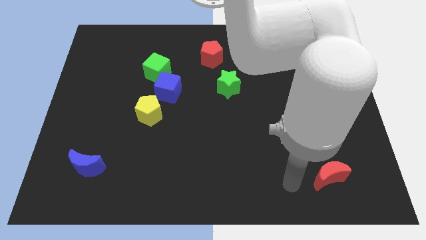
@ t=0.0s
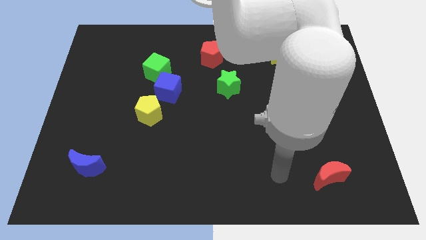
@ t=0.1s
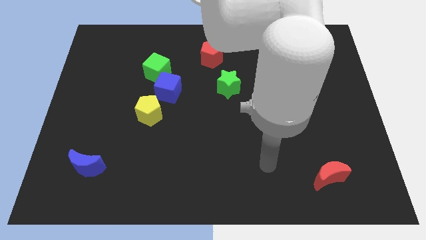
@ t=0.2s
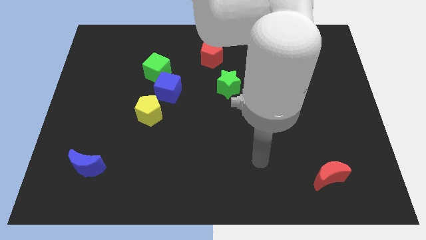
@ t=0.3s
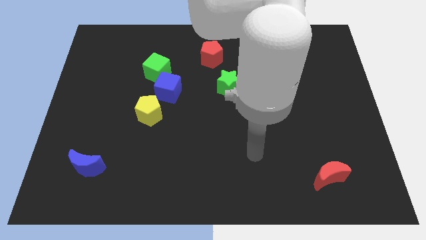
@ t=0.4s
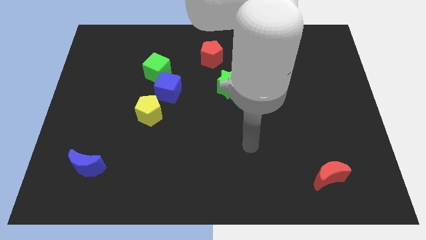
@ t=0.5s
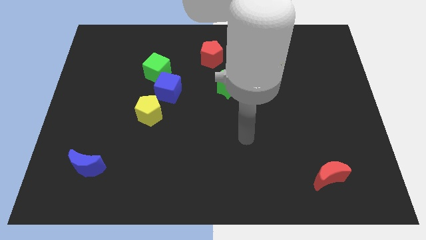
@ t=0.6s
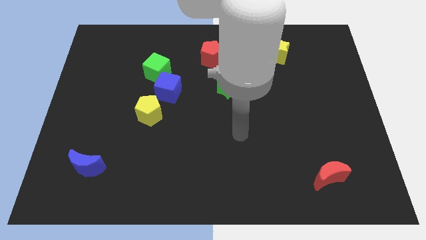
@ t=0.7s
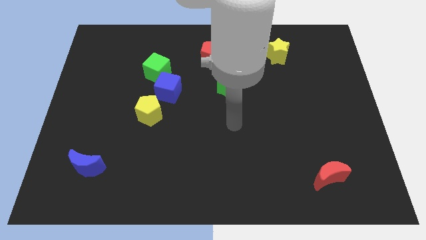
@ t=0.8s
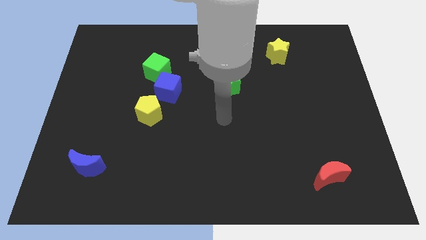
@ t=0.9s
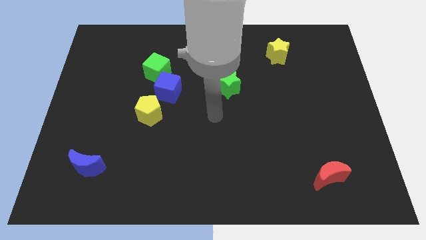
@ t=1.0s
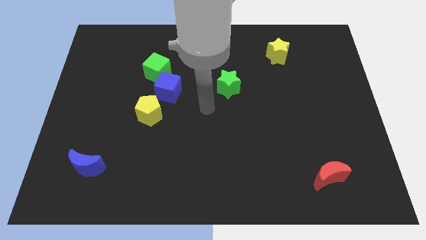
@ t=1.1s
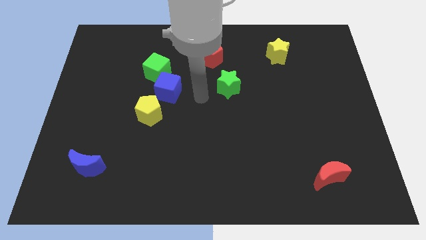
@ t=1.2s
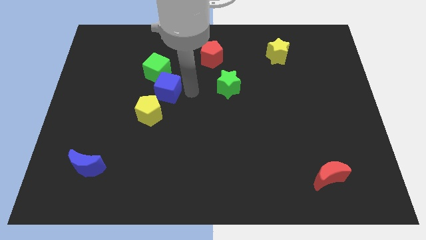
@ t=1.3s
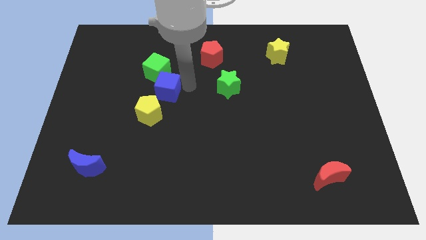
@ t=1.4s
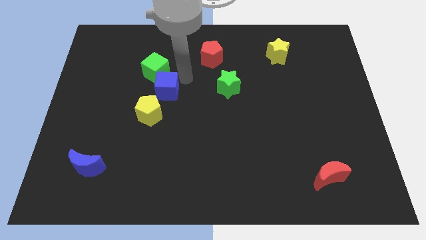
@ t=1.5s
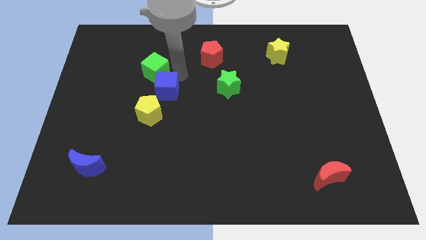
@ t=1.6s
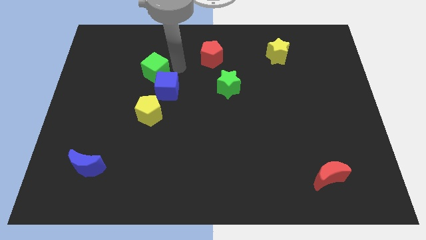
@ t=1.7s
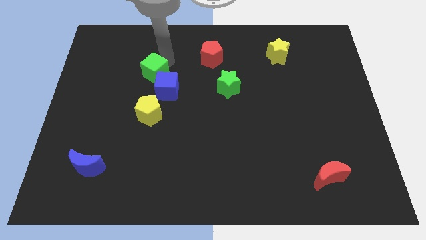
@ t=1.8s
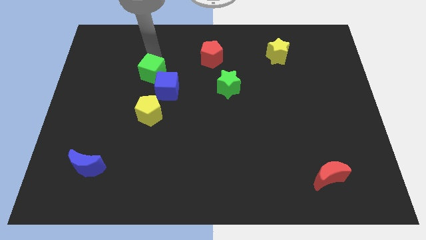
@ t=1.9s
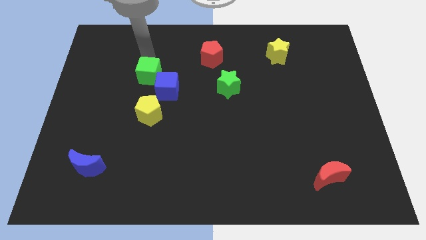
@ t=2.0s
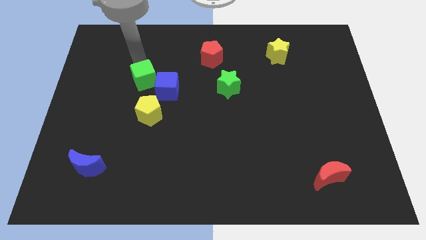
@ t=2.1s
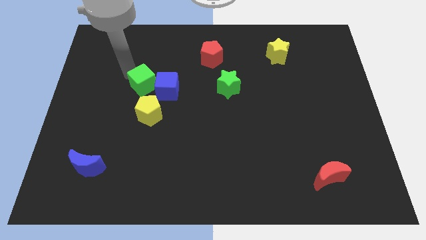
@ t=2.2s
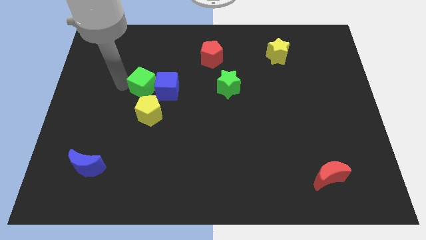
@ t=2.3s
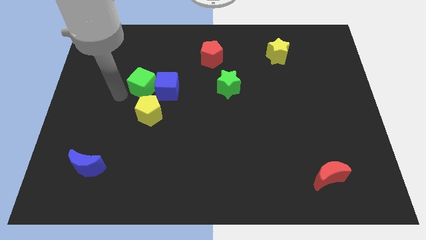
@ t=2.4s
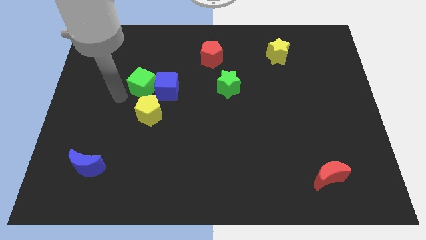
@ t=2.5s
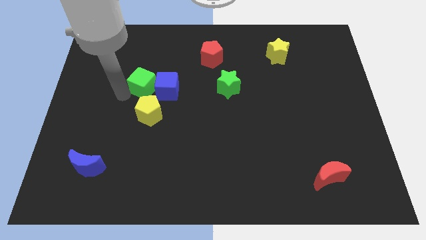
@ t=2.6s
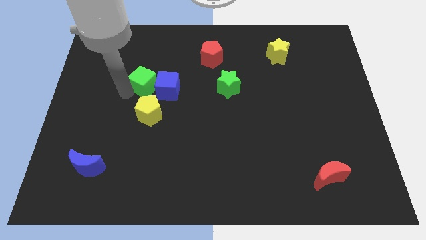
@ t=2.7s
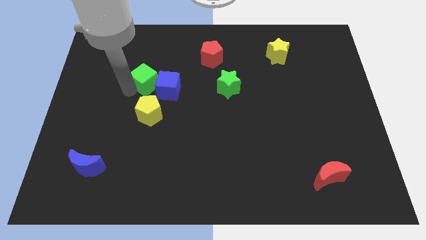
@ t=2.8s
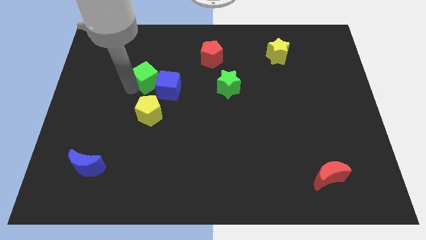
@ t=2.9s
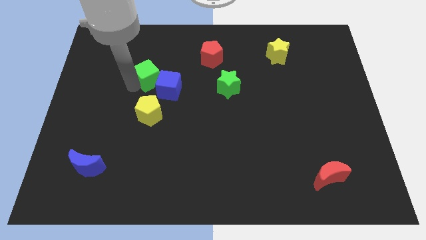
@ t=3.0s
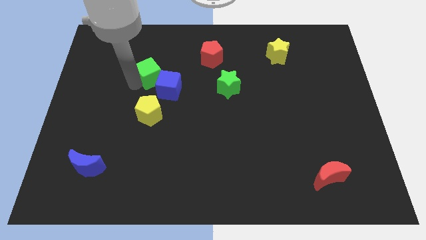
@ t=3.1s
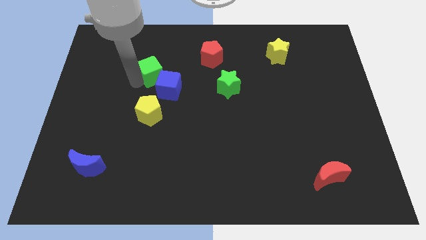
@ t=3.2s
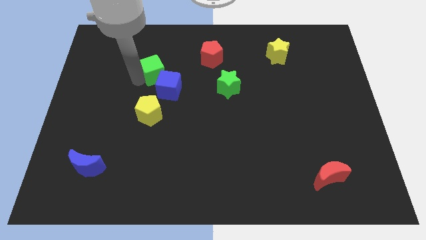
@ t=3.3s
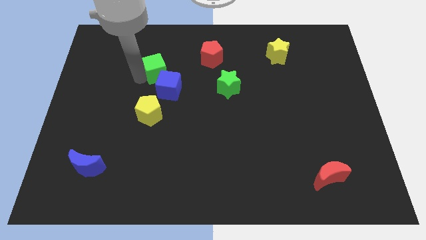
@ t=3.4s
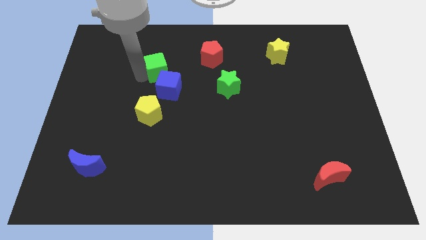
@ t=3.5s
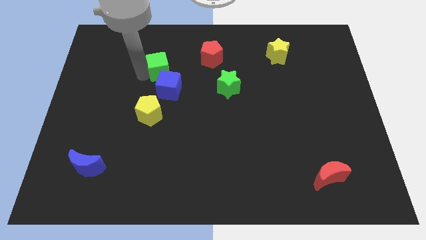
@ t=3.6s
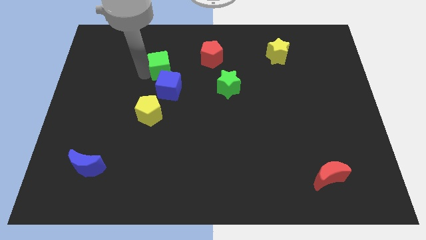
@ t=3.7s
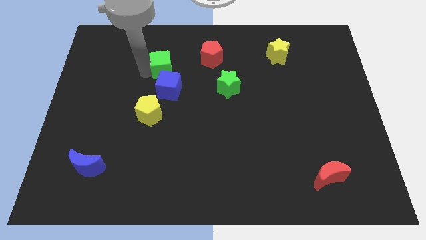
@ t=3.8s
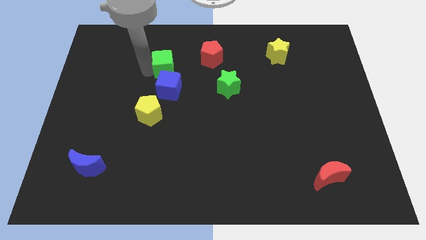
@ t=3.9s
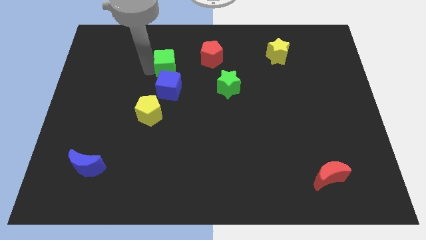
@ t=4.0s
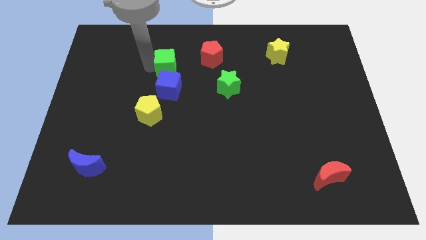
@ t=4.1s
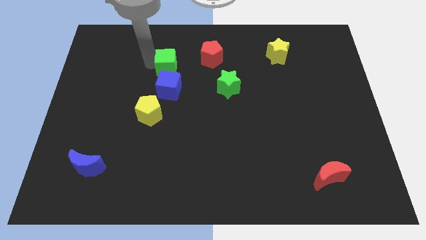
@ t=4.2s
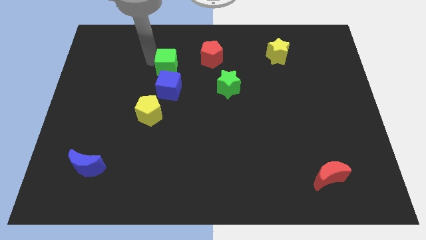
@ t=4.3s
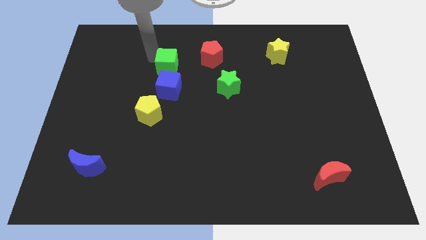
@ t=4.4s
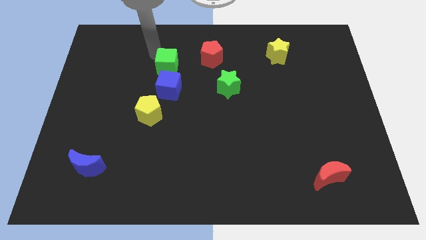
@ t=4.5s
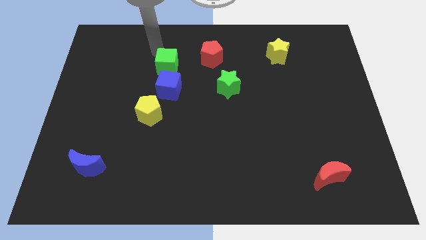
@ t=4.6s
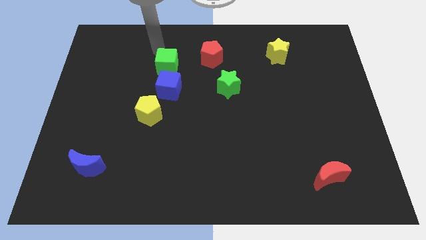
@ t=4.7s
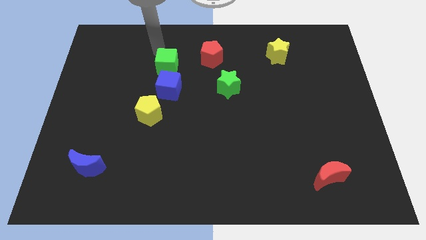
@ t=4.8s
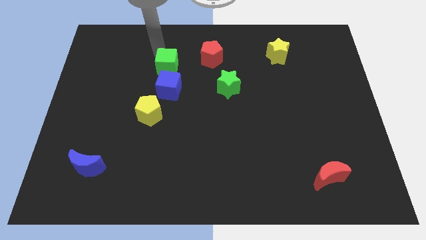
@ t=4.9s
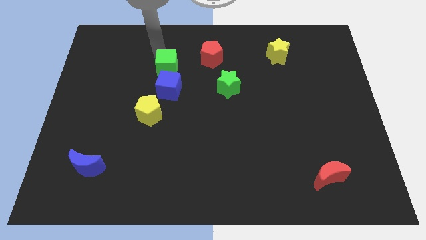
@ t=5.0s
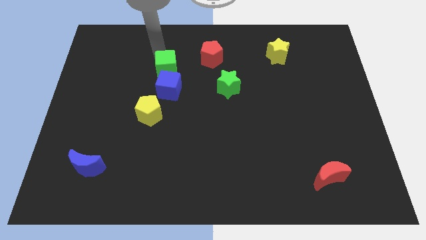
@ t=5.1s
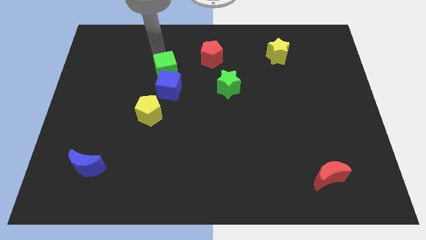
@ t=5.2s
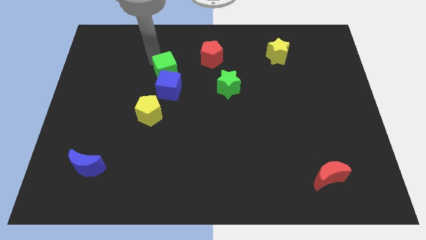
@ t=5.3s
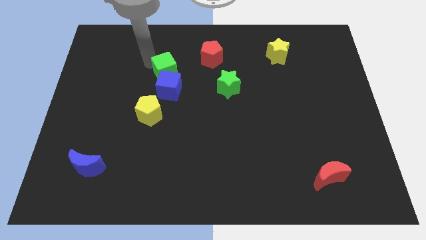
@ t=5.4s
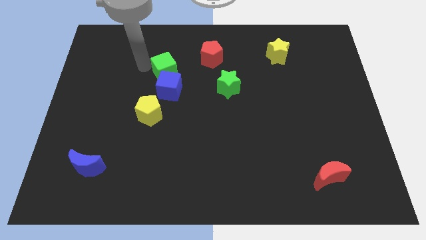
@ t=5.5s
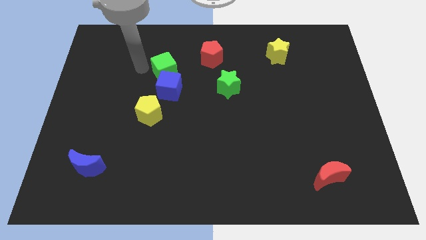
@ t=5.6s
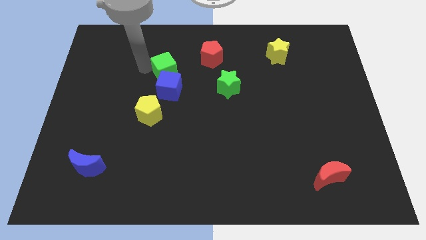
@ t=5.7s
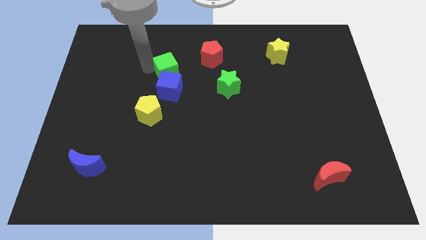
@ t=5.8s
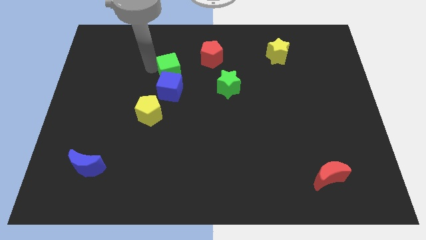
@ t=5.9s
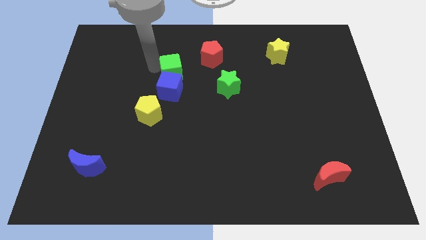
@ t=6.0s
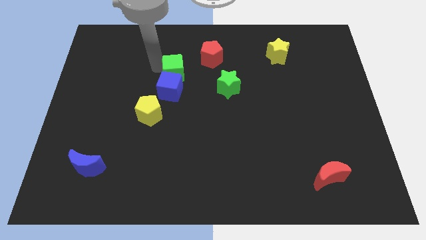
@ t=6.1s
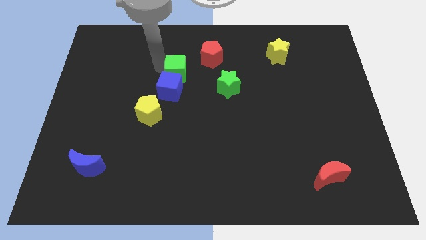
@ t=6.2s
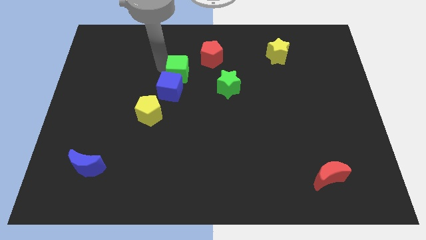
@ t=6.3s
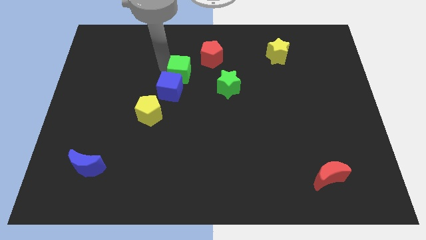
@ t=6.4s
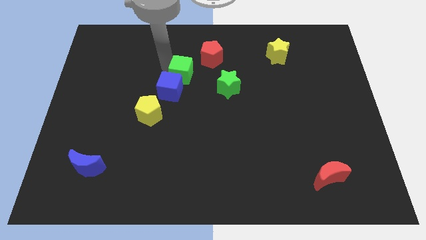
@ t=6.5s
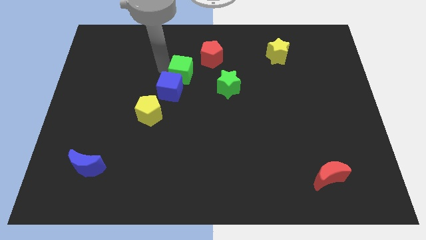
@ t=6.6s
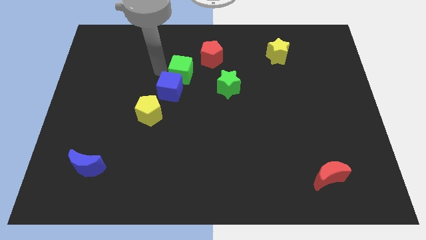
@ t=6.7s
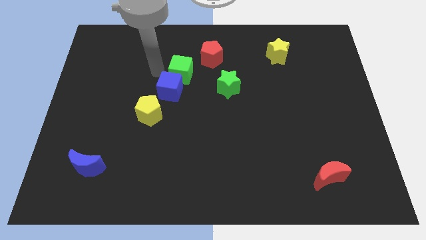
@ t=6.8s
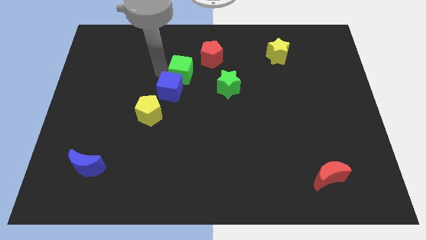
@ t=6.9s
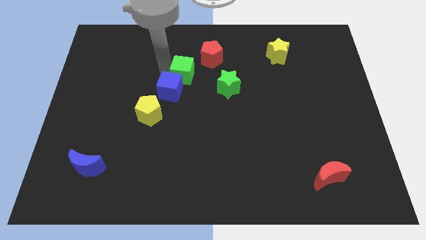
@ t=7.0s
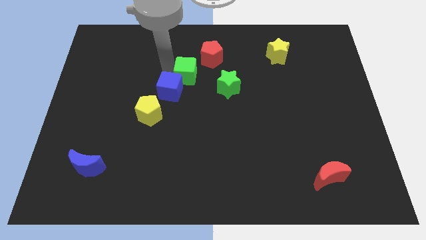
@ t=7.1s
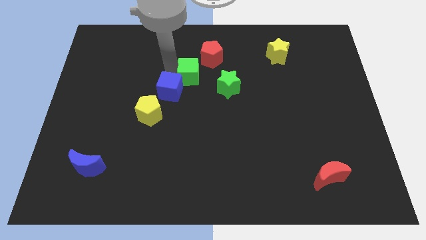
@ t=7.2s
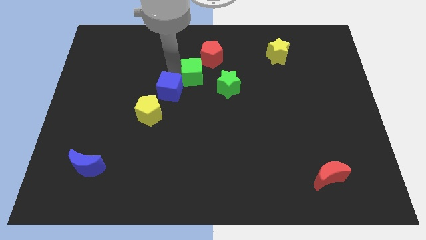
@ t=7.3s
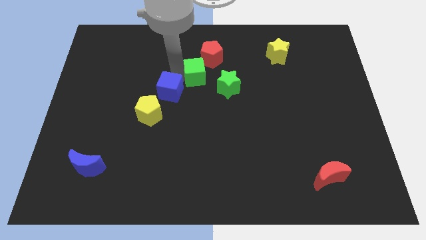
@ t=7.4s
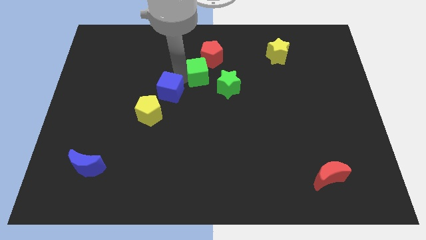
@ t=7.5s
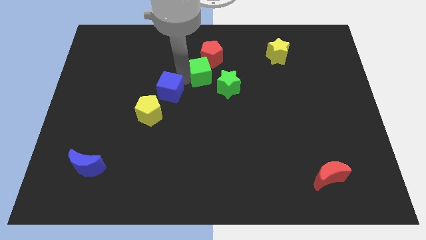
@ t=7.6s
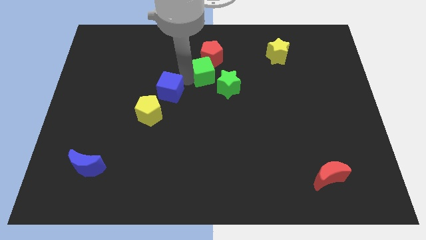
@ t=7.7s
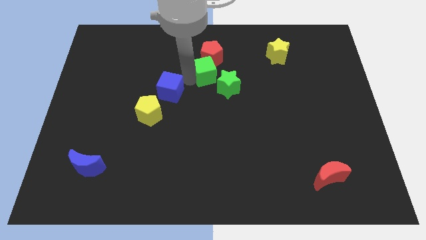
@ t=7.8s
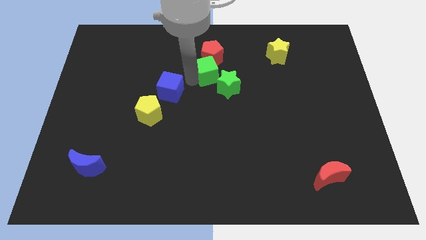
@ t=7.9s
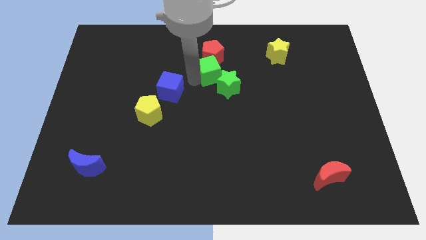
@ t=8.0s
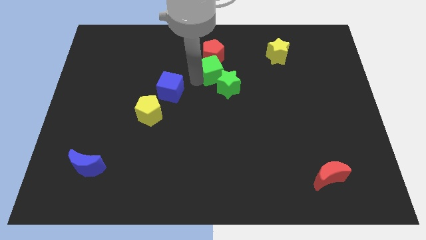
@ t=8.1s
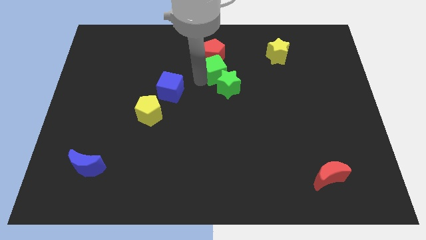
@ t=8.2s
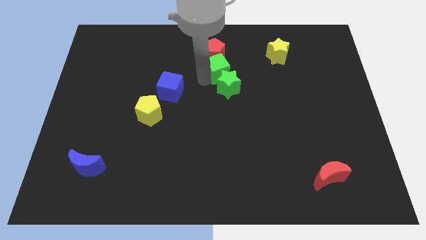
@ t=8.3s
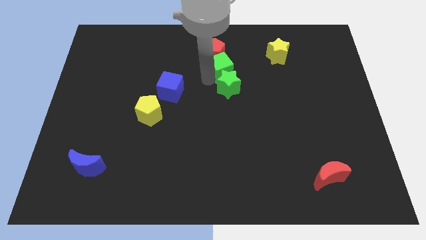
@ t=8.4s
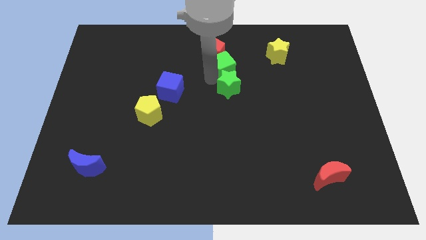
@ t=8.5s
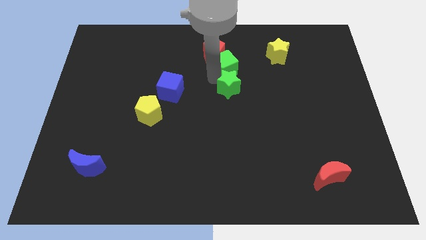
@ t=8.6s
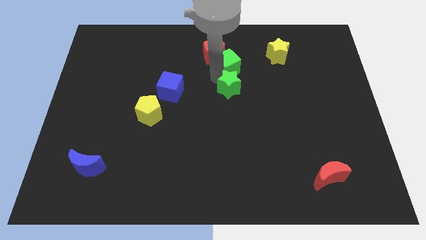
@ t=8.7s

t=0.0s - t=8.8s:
move the green cube to the left side of the yellow star
